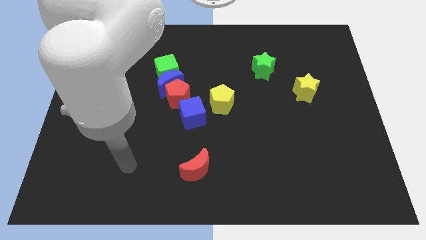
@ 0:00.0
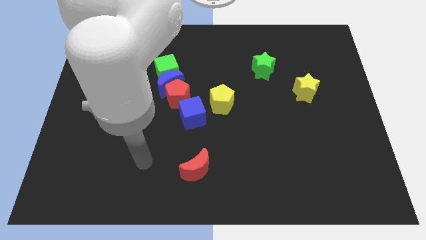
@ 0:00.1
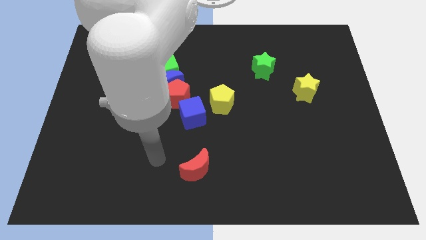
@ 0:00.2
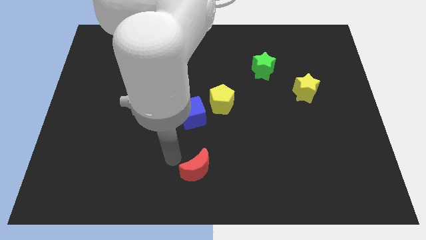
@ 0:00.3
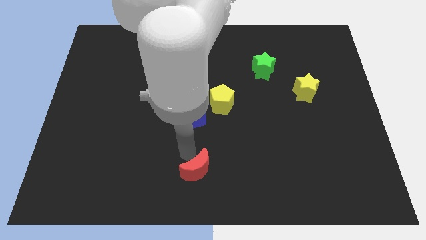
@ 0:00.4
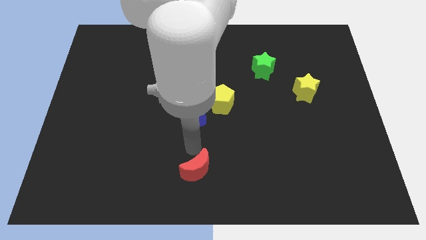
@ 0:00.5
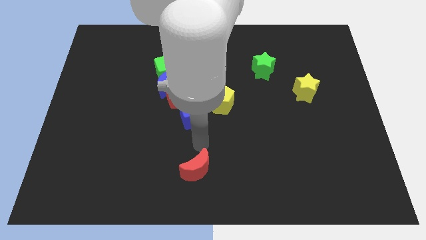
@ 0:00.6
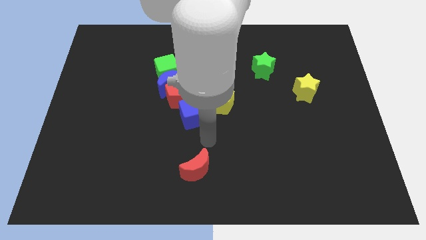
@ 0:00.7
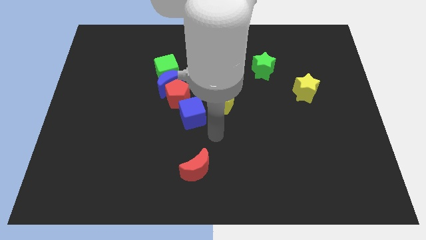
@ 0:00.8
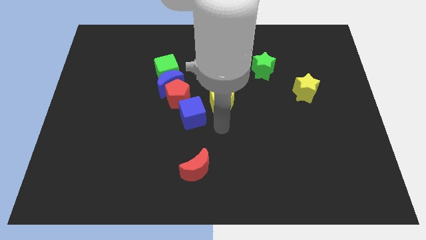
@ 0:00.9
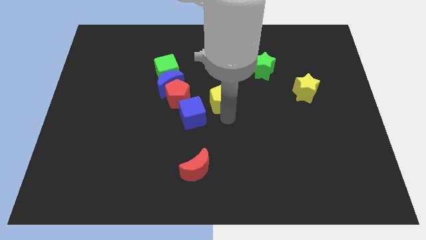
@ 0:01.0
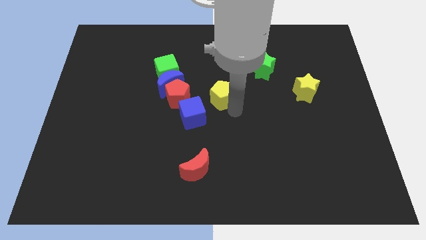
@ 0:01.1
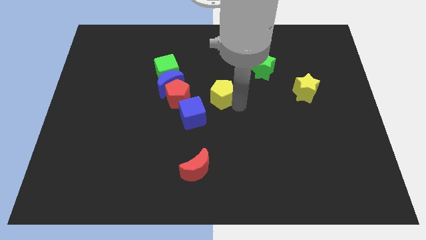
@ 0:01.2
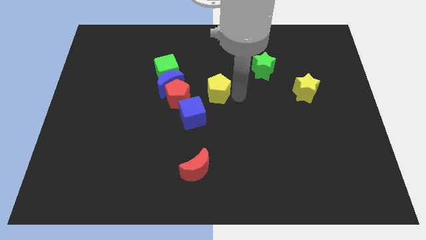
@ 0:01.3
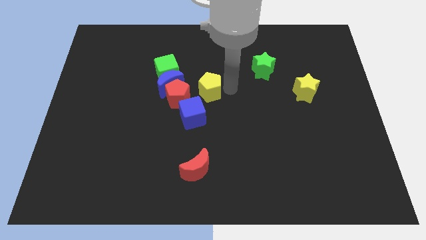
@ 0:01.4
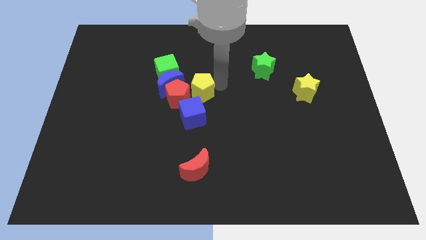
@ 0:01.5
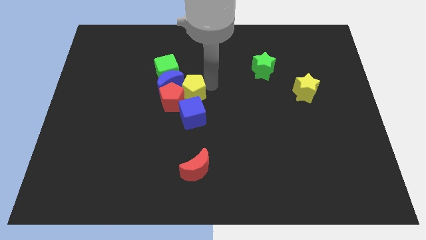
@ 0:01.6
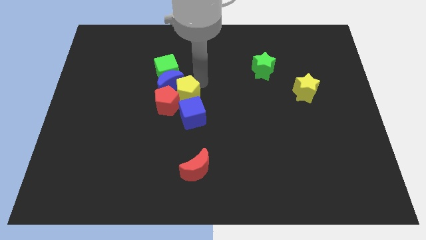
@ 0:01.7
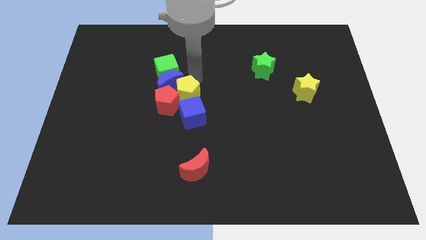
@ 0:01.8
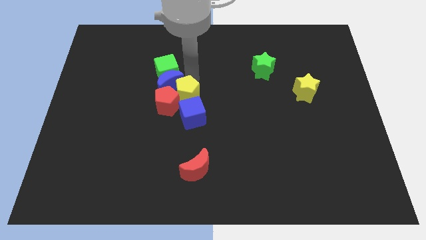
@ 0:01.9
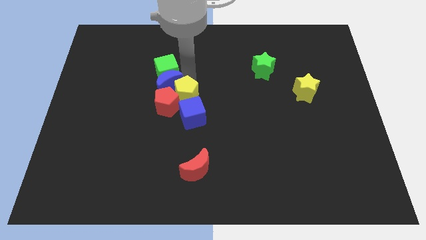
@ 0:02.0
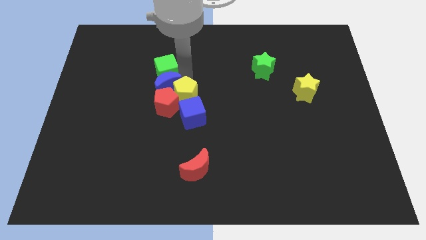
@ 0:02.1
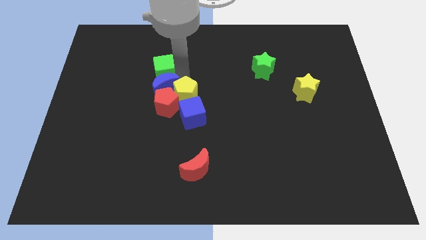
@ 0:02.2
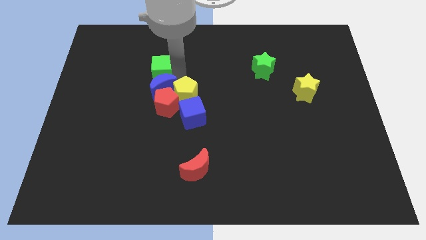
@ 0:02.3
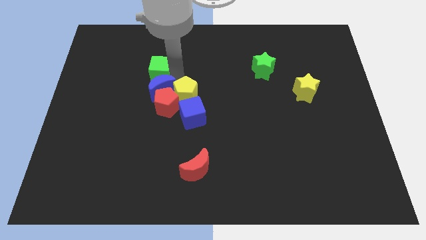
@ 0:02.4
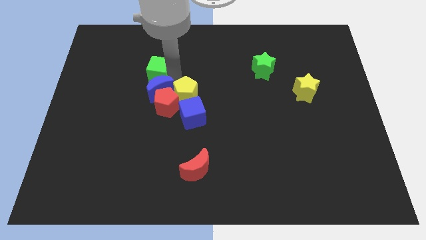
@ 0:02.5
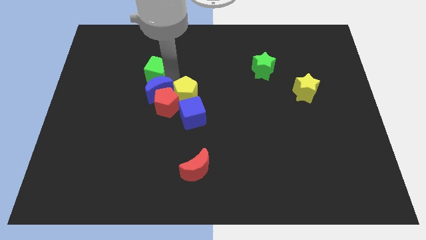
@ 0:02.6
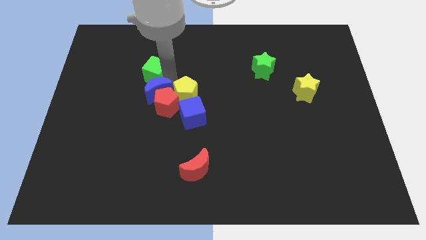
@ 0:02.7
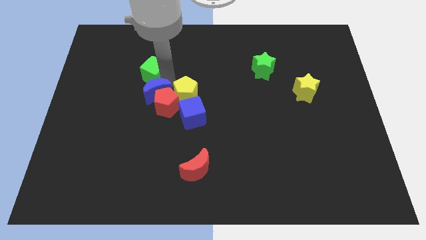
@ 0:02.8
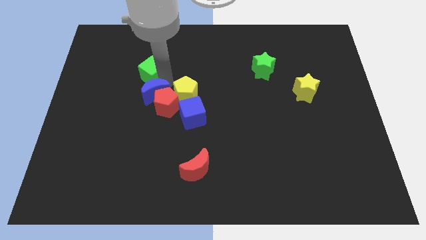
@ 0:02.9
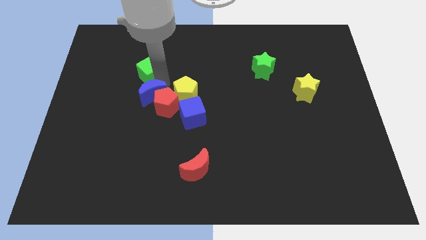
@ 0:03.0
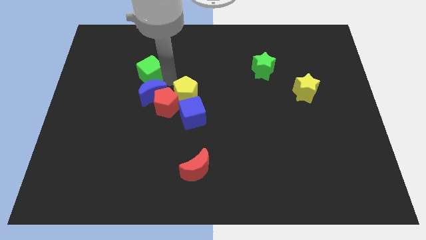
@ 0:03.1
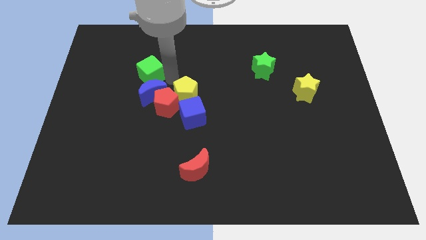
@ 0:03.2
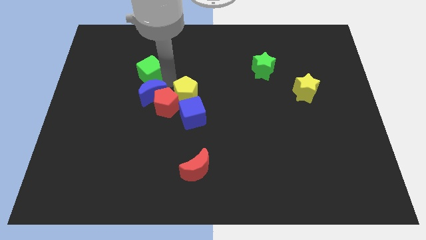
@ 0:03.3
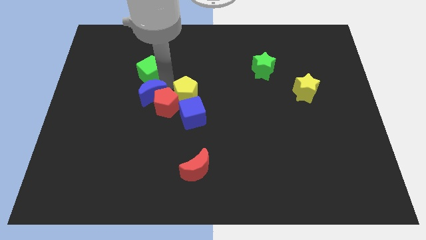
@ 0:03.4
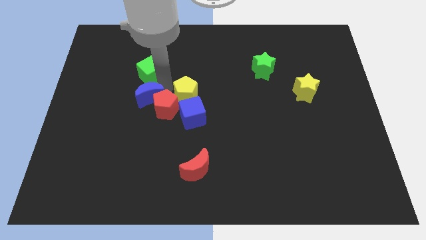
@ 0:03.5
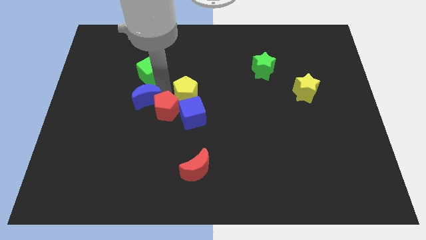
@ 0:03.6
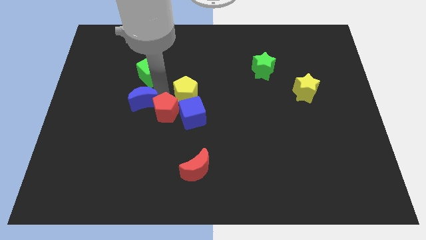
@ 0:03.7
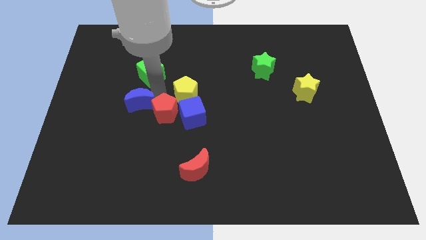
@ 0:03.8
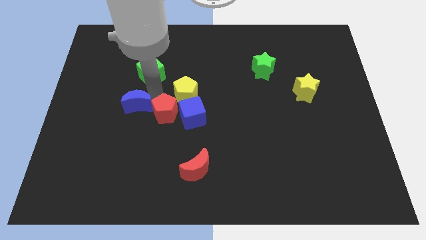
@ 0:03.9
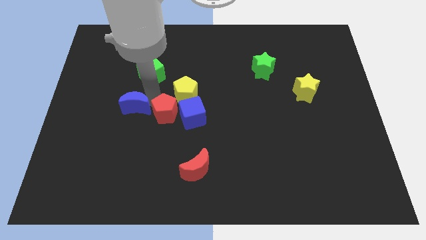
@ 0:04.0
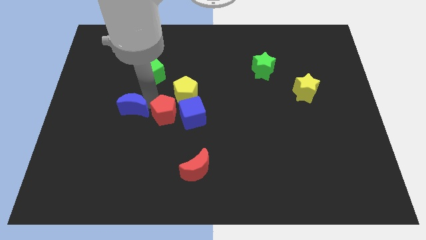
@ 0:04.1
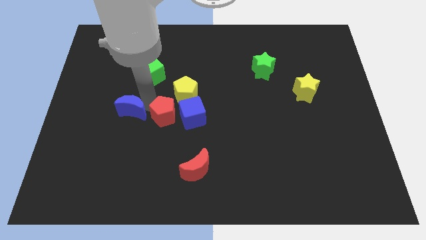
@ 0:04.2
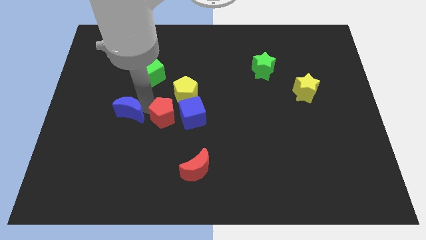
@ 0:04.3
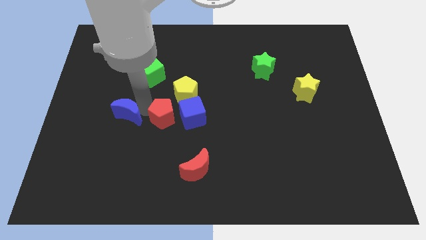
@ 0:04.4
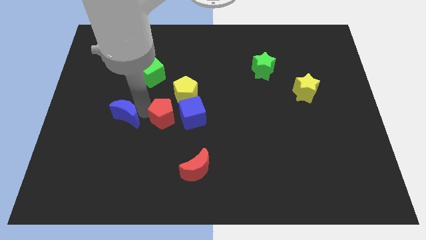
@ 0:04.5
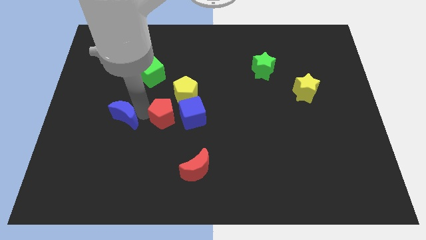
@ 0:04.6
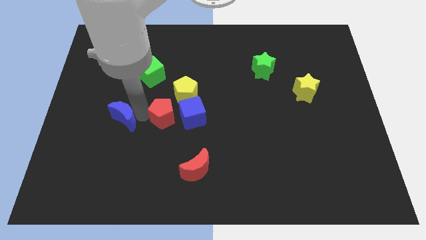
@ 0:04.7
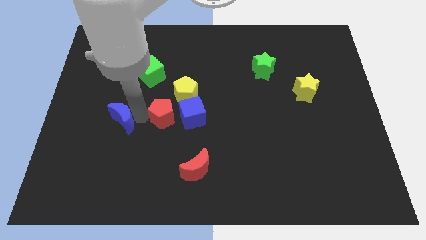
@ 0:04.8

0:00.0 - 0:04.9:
move the blue moon away from the green cube and red pentagon

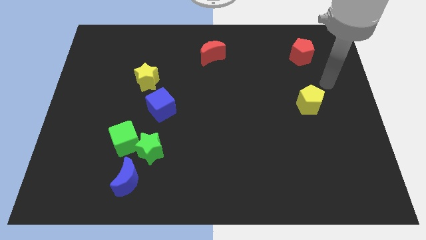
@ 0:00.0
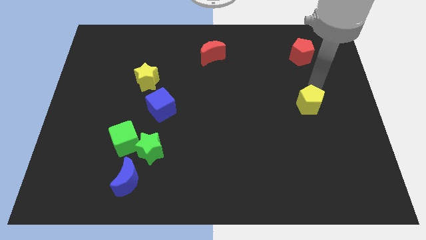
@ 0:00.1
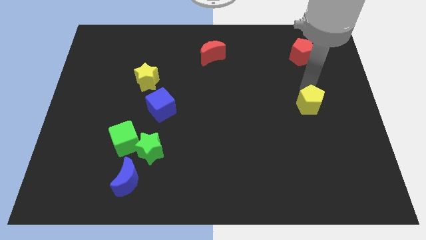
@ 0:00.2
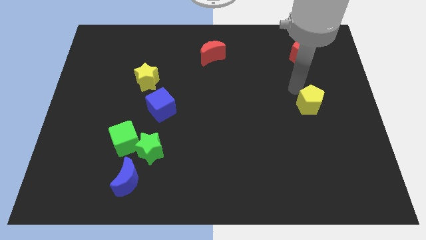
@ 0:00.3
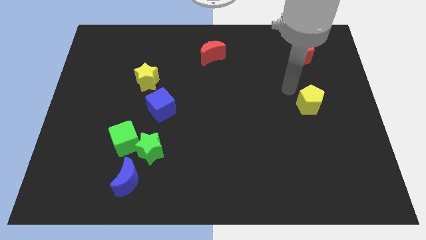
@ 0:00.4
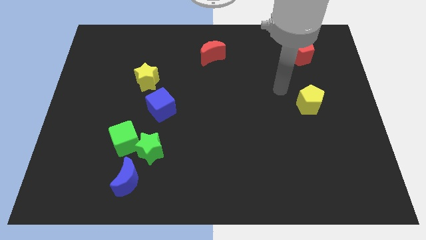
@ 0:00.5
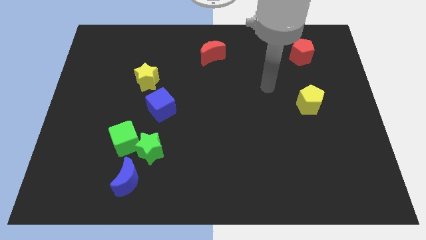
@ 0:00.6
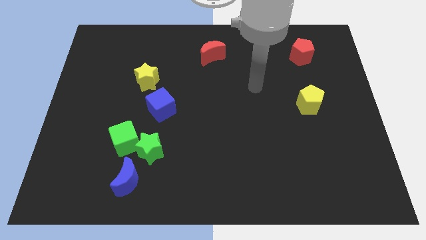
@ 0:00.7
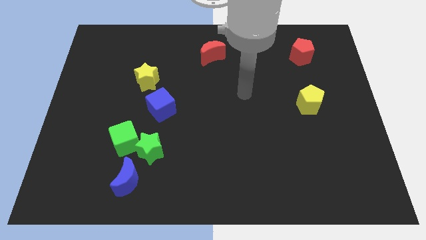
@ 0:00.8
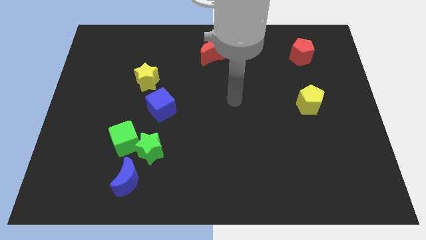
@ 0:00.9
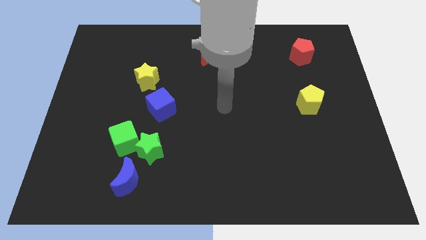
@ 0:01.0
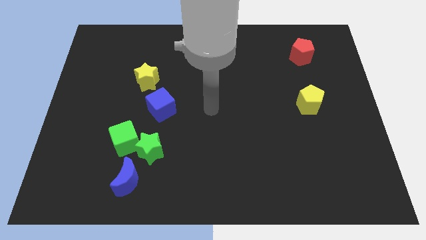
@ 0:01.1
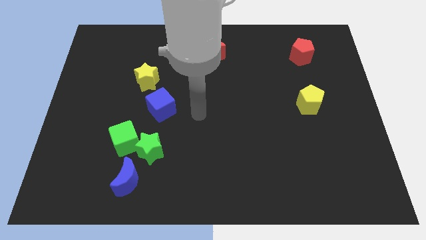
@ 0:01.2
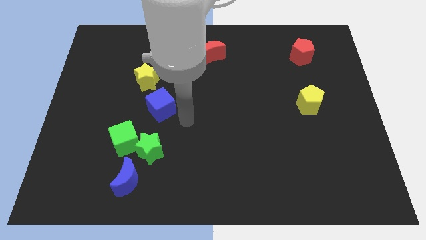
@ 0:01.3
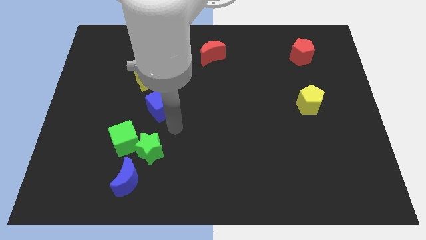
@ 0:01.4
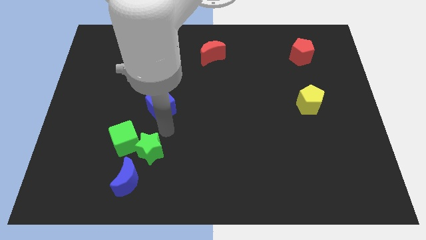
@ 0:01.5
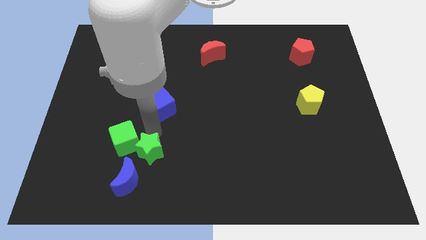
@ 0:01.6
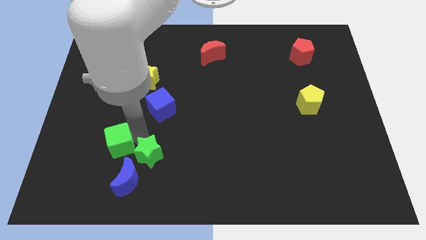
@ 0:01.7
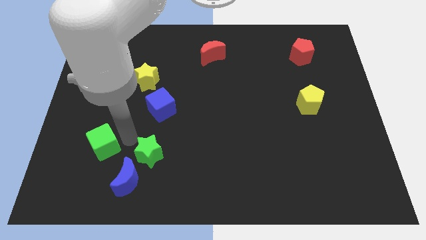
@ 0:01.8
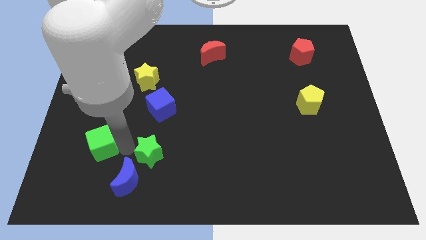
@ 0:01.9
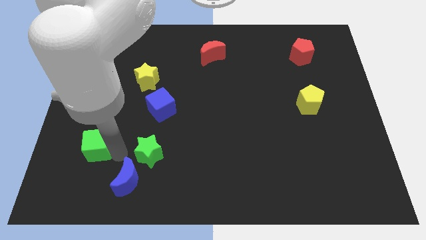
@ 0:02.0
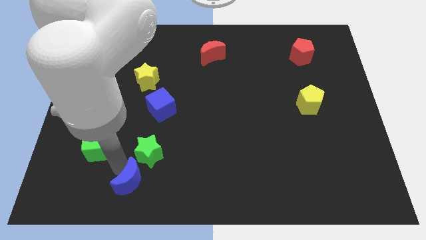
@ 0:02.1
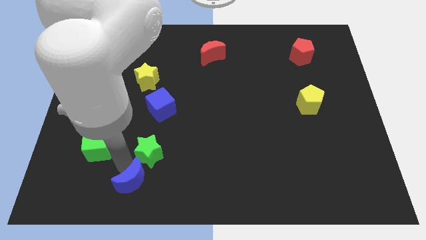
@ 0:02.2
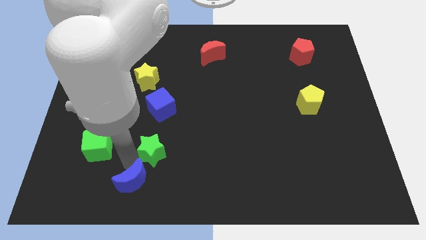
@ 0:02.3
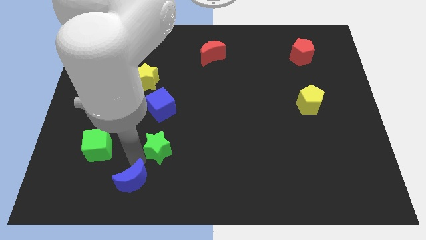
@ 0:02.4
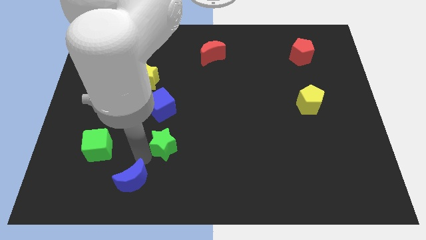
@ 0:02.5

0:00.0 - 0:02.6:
separate the green star from the green cube and blue moon

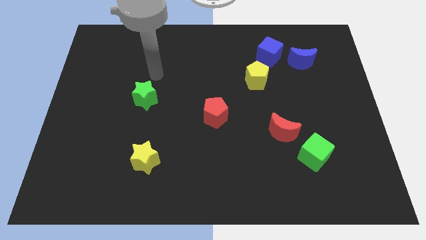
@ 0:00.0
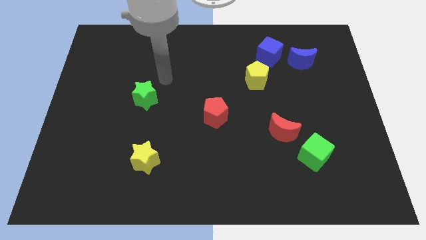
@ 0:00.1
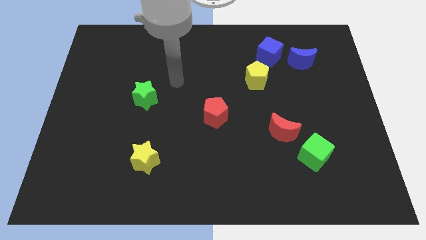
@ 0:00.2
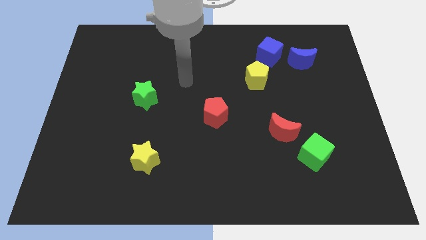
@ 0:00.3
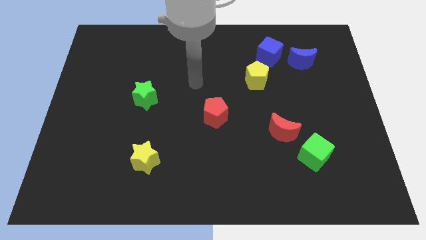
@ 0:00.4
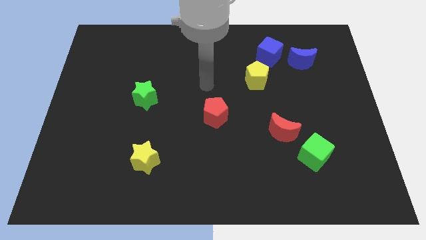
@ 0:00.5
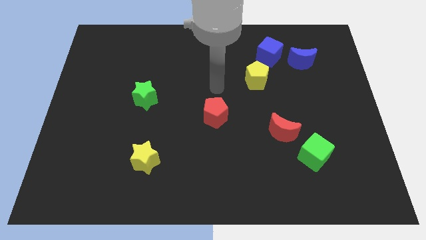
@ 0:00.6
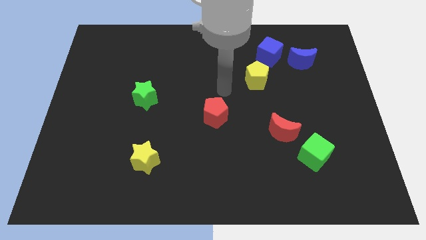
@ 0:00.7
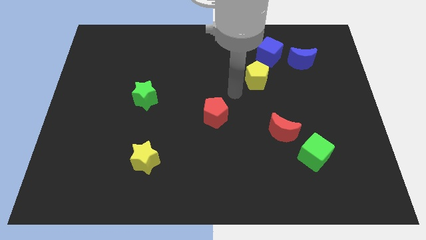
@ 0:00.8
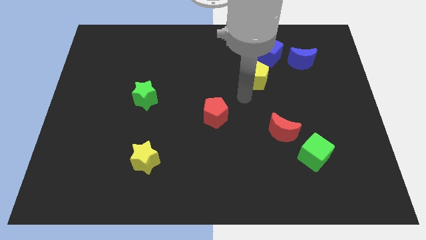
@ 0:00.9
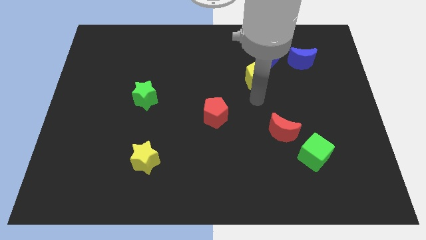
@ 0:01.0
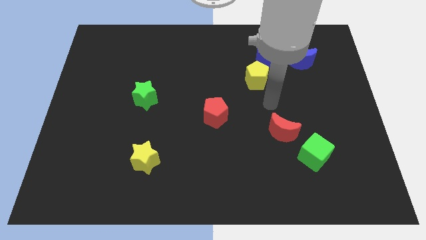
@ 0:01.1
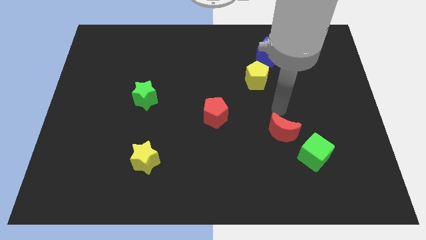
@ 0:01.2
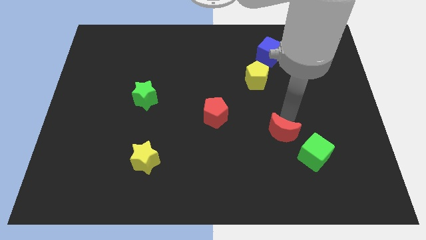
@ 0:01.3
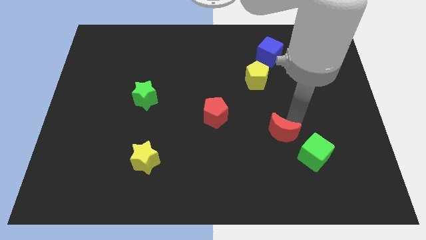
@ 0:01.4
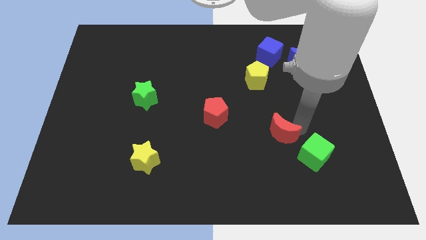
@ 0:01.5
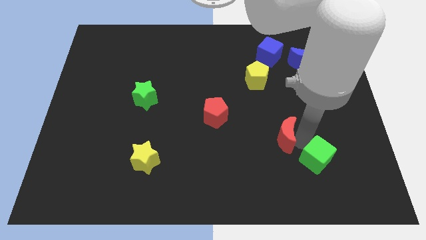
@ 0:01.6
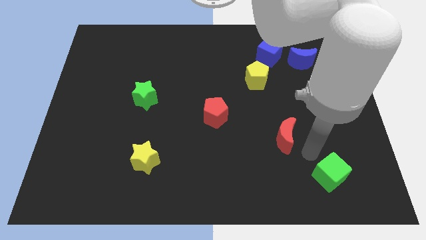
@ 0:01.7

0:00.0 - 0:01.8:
pull the red moon apart from the green cube

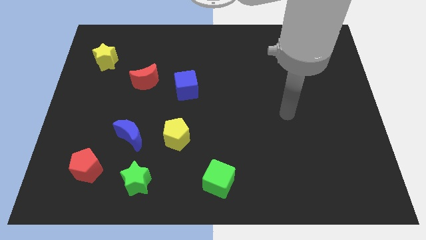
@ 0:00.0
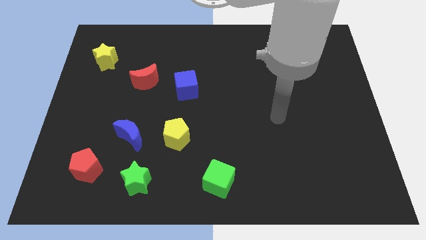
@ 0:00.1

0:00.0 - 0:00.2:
pull the blue moon apart from the yellow pentagon
